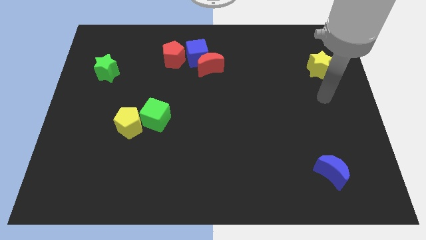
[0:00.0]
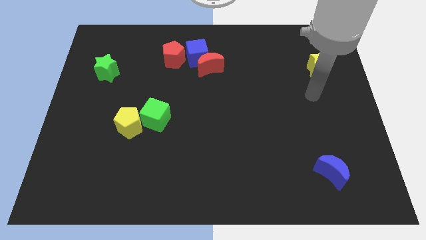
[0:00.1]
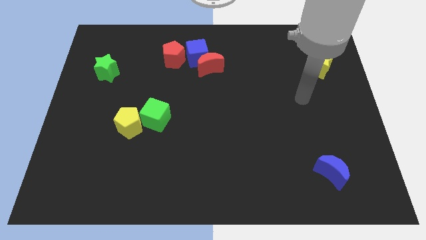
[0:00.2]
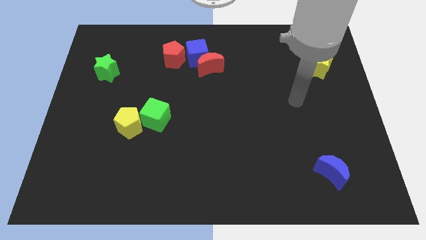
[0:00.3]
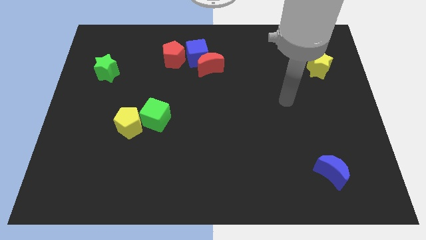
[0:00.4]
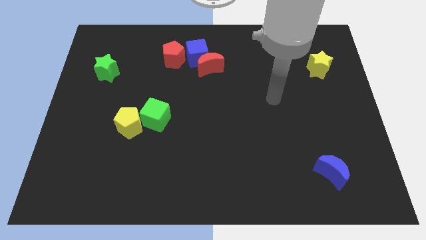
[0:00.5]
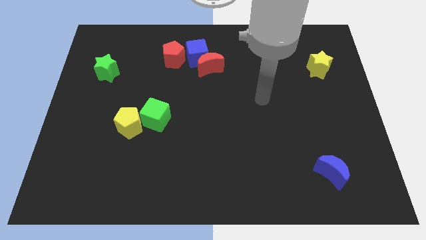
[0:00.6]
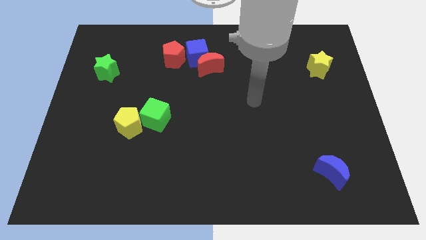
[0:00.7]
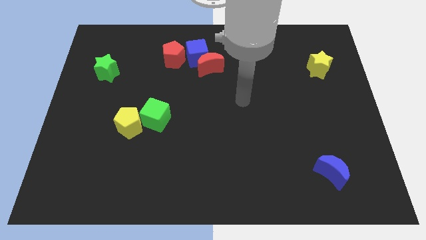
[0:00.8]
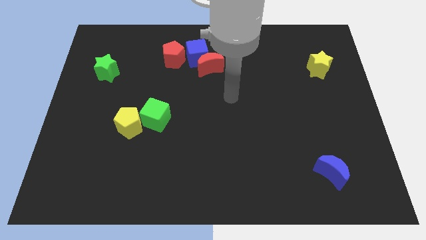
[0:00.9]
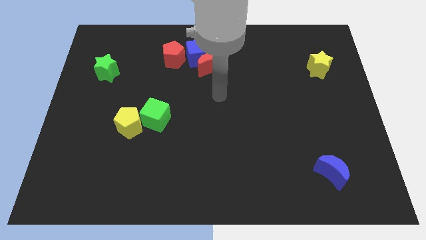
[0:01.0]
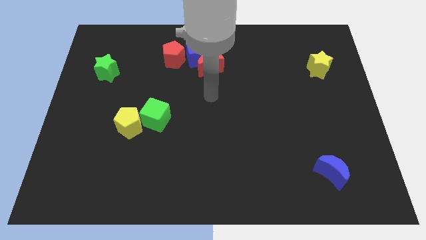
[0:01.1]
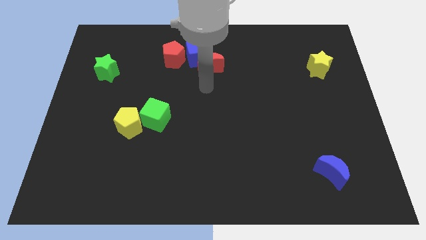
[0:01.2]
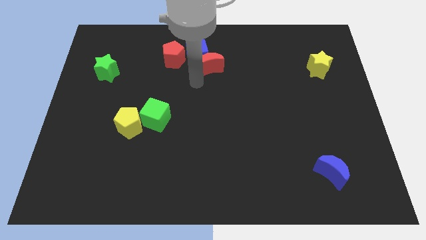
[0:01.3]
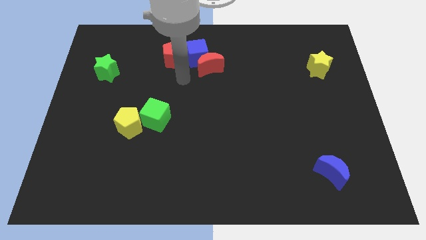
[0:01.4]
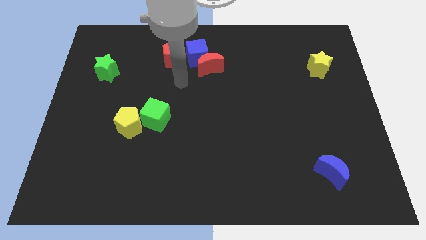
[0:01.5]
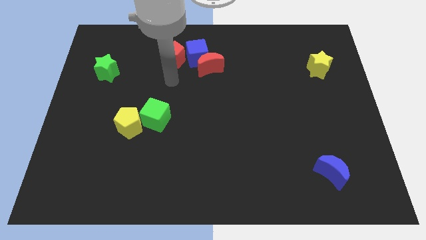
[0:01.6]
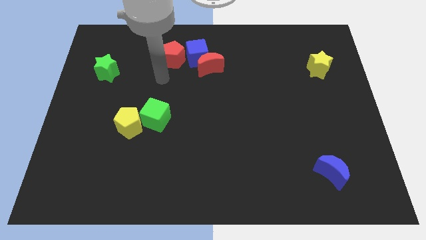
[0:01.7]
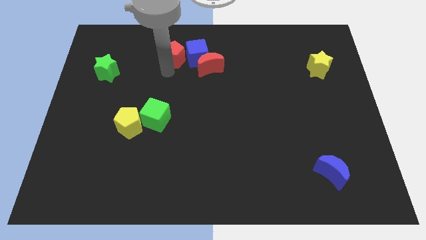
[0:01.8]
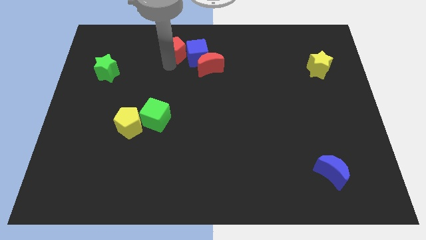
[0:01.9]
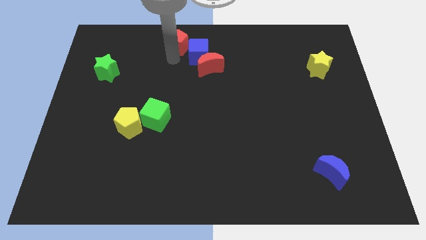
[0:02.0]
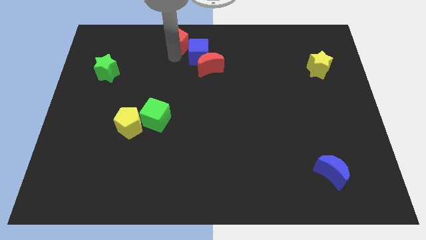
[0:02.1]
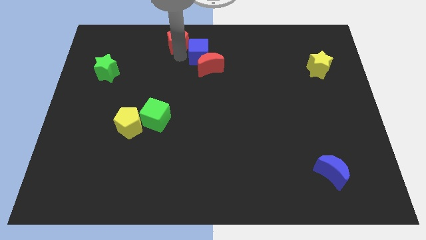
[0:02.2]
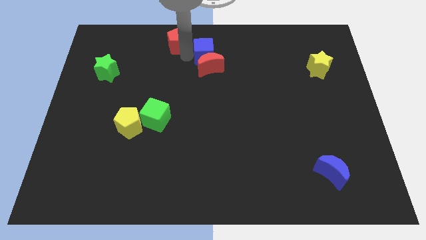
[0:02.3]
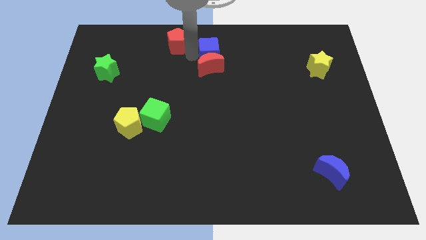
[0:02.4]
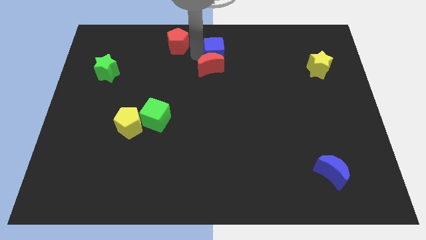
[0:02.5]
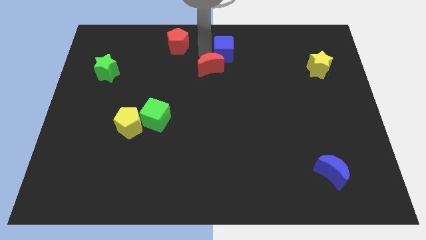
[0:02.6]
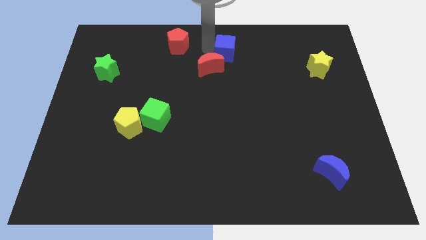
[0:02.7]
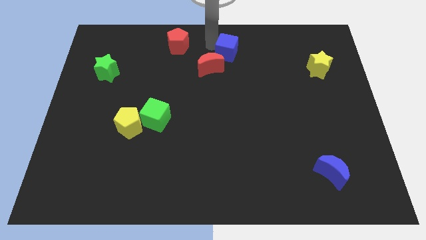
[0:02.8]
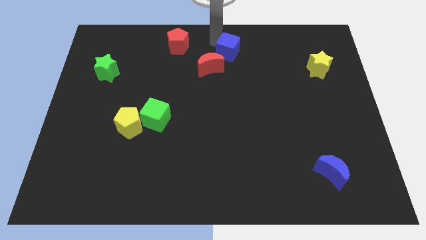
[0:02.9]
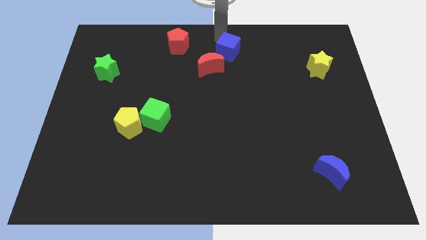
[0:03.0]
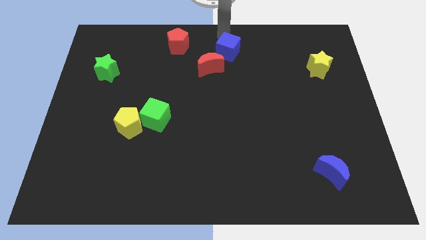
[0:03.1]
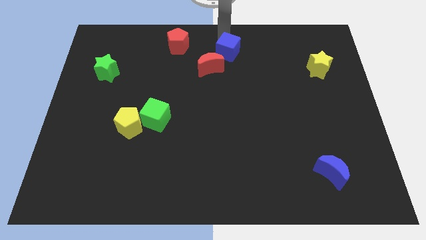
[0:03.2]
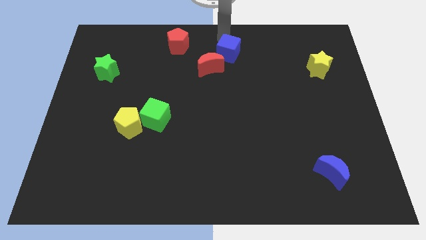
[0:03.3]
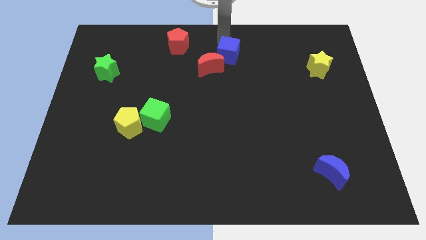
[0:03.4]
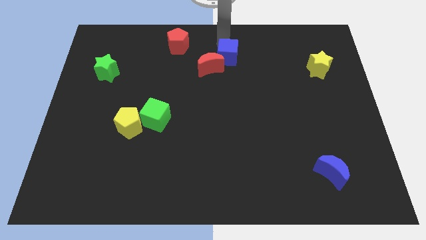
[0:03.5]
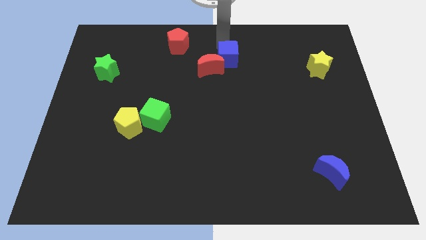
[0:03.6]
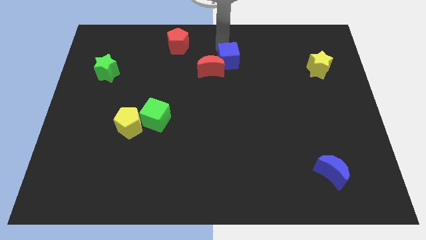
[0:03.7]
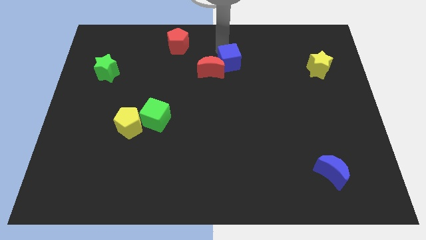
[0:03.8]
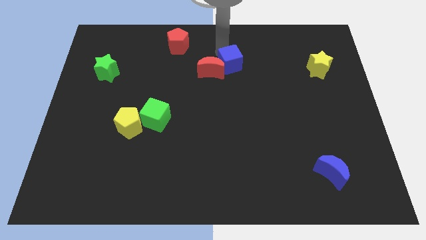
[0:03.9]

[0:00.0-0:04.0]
slide the blue cube diagonally downwards and to the right somewhat

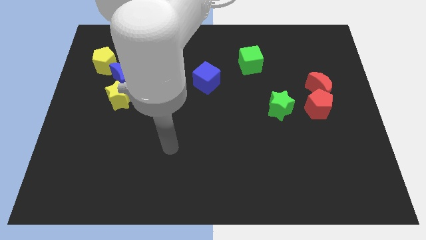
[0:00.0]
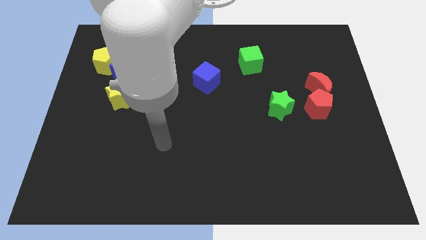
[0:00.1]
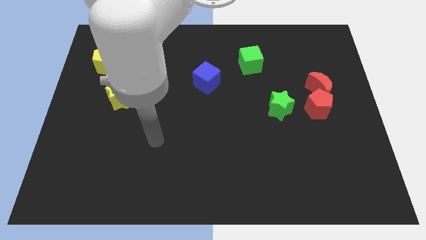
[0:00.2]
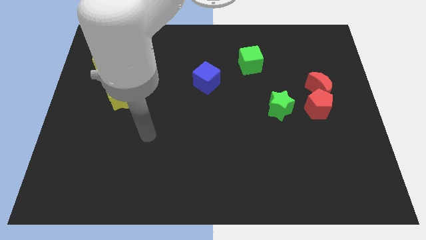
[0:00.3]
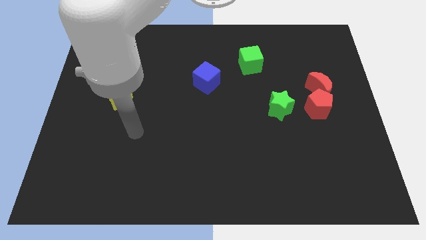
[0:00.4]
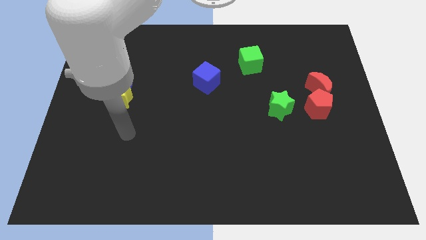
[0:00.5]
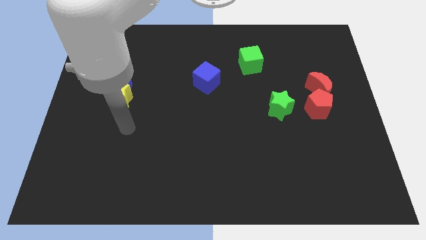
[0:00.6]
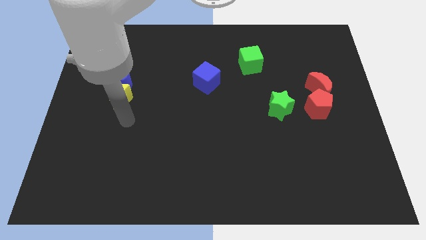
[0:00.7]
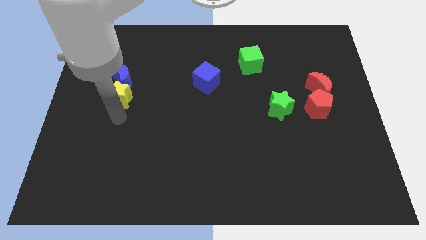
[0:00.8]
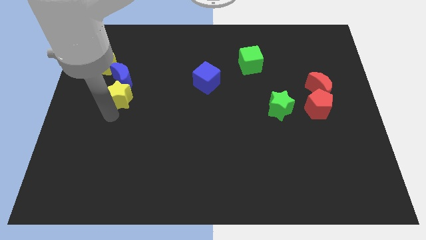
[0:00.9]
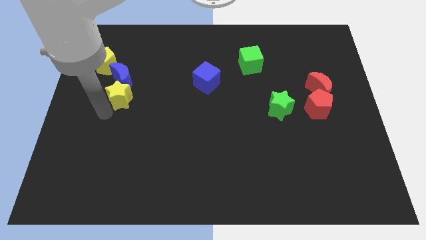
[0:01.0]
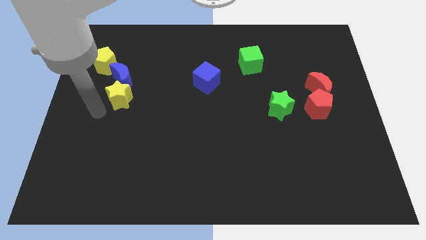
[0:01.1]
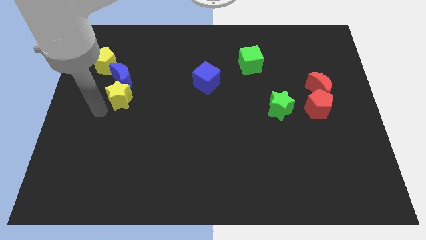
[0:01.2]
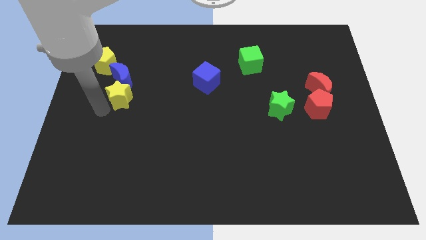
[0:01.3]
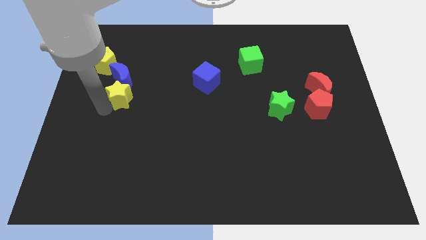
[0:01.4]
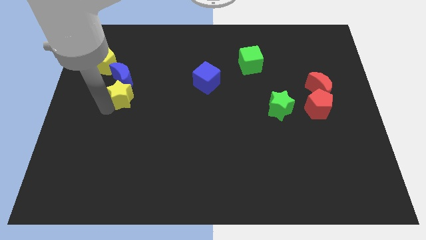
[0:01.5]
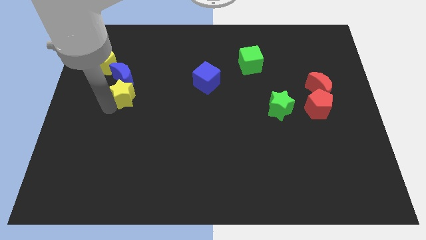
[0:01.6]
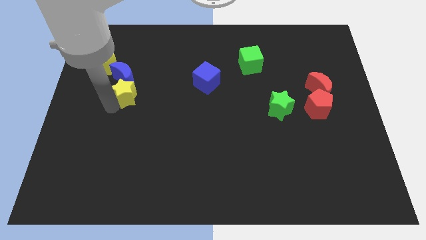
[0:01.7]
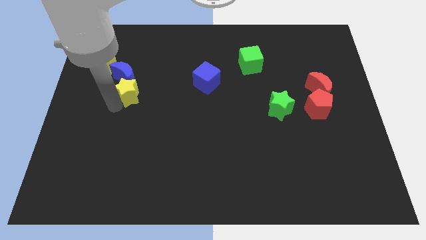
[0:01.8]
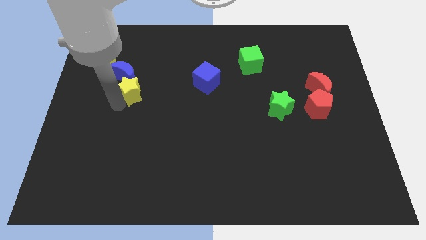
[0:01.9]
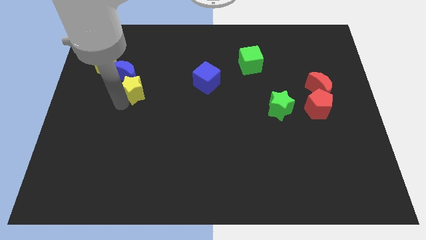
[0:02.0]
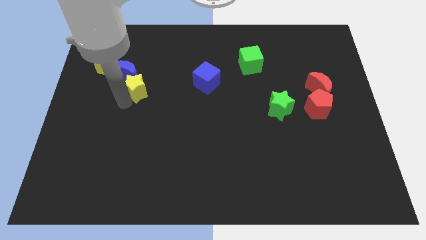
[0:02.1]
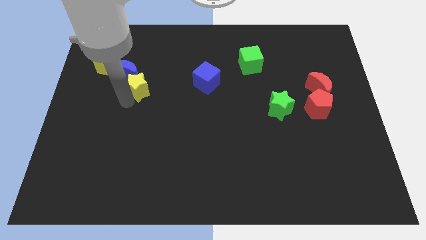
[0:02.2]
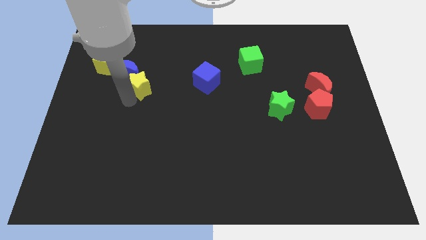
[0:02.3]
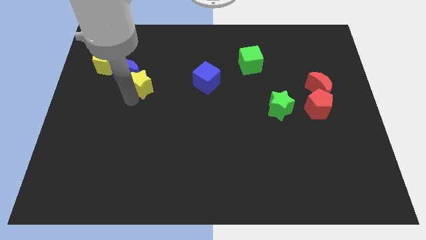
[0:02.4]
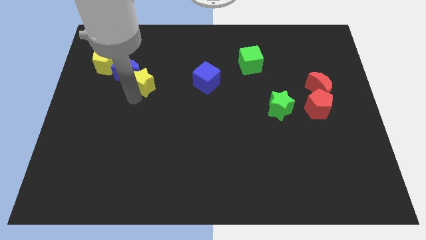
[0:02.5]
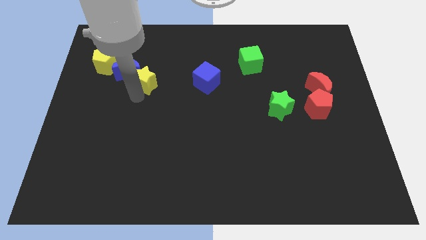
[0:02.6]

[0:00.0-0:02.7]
slide the yellow star a little upwards and to the right diagonally

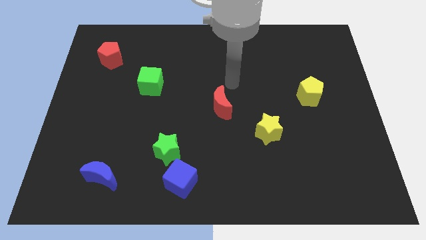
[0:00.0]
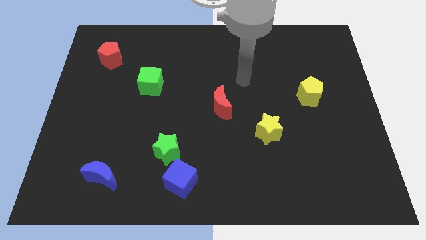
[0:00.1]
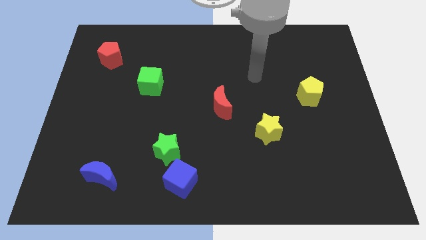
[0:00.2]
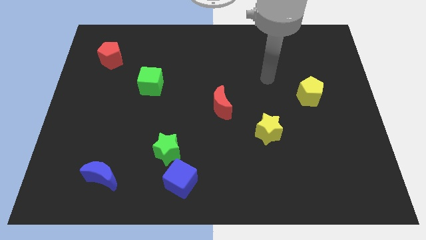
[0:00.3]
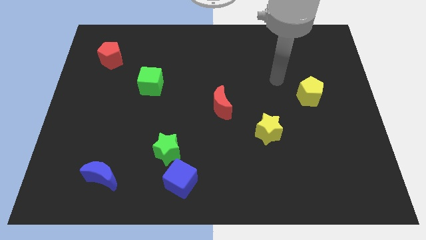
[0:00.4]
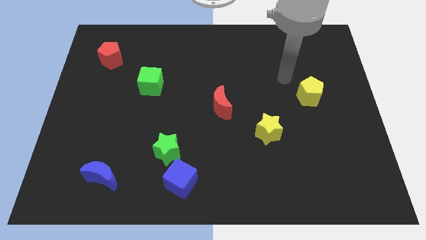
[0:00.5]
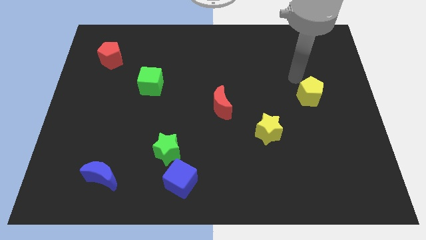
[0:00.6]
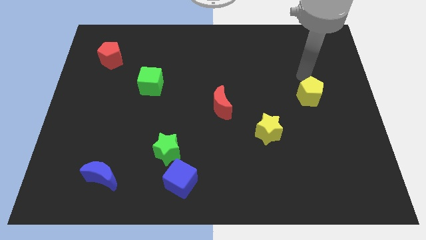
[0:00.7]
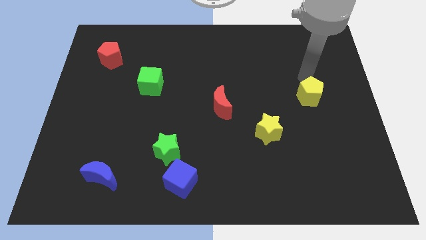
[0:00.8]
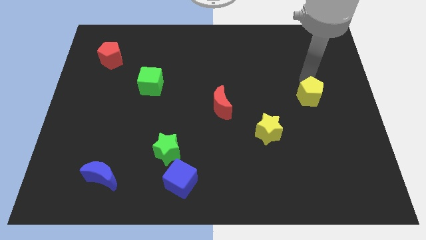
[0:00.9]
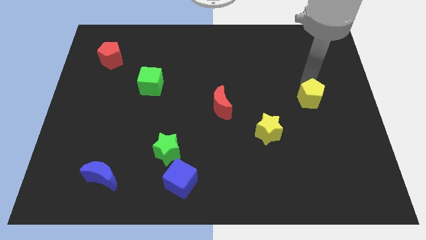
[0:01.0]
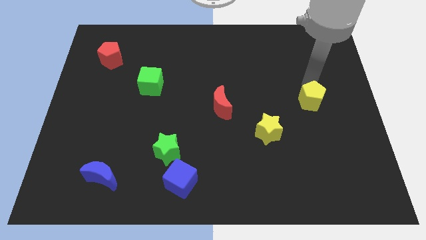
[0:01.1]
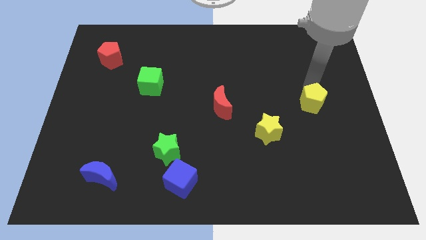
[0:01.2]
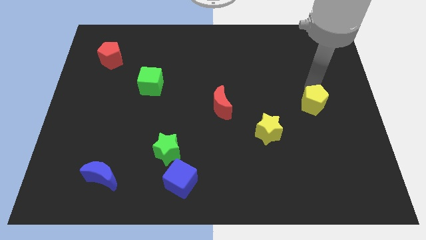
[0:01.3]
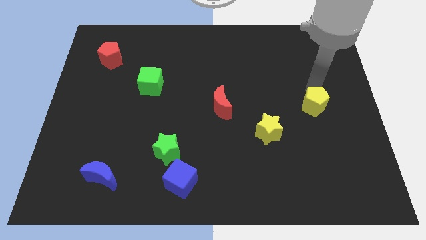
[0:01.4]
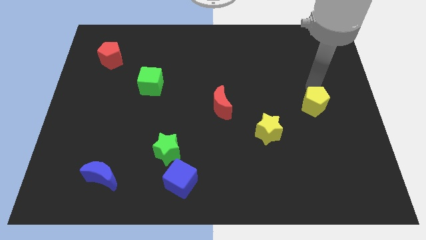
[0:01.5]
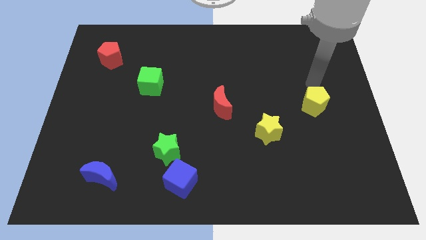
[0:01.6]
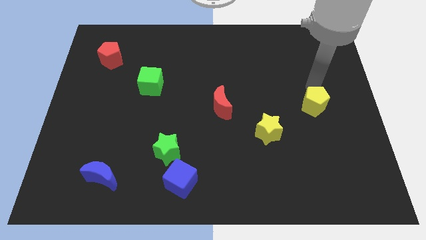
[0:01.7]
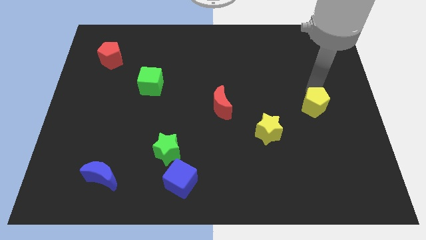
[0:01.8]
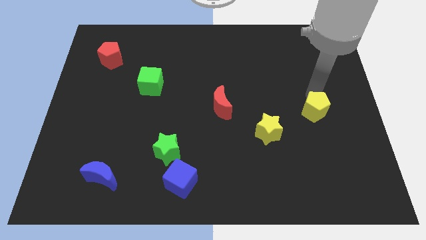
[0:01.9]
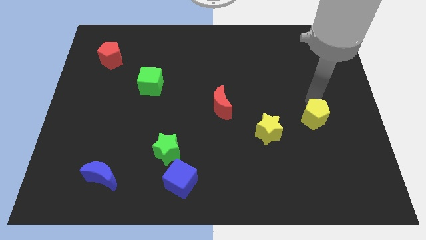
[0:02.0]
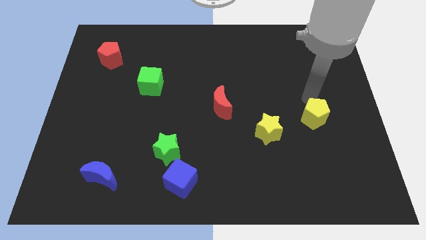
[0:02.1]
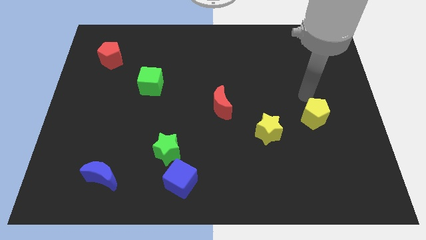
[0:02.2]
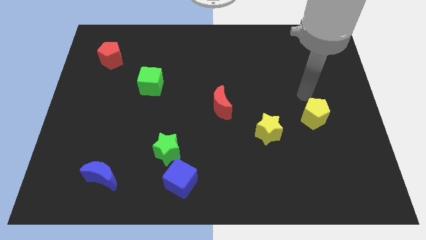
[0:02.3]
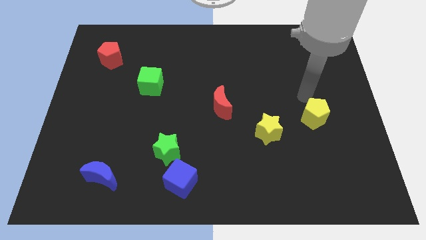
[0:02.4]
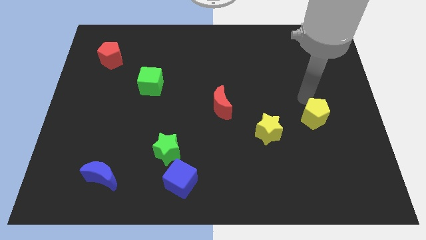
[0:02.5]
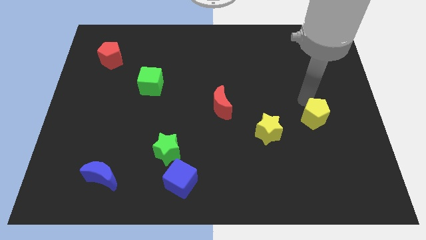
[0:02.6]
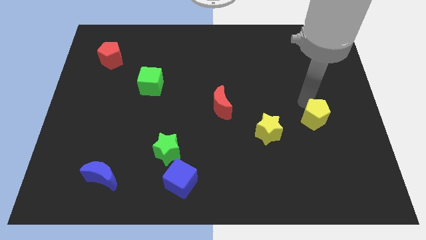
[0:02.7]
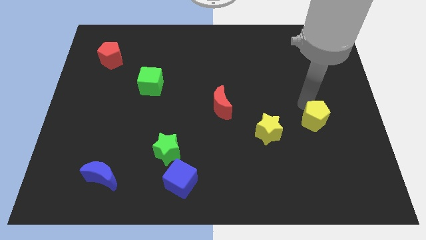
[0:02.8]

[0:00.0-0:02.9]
slightly move the yellow pentagon downwards
